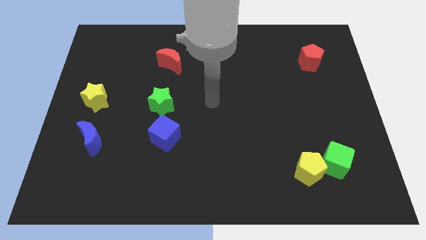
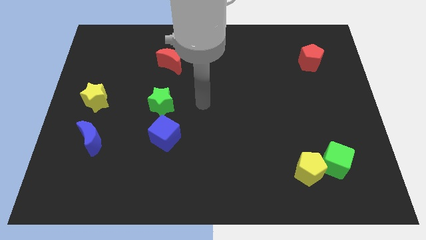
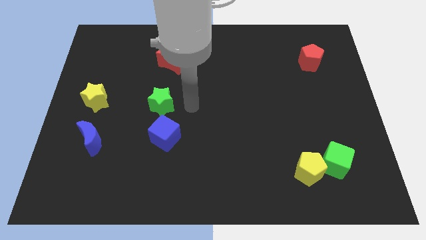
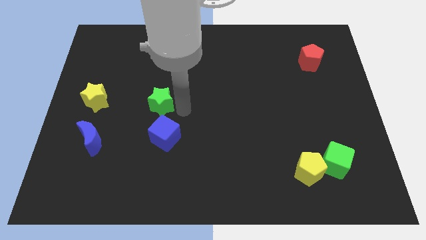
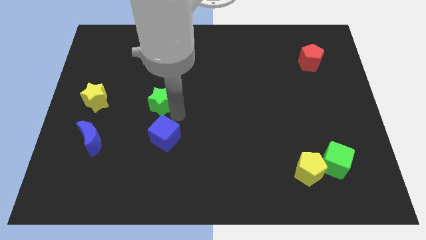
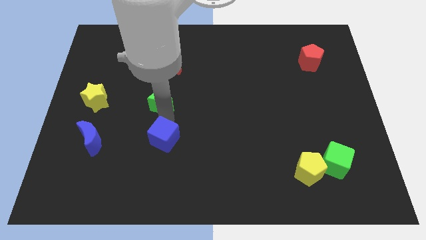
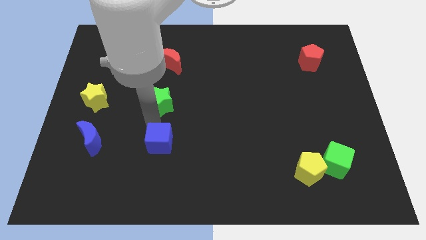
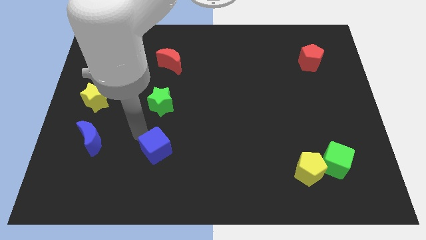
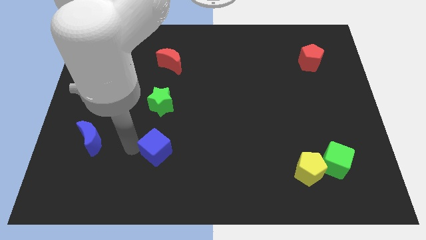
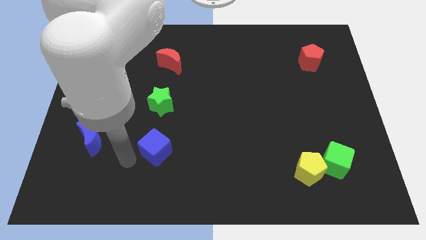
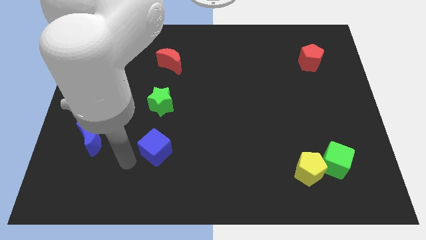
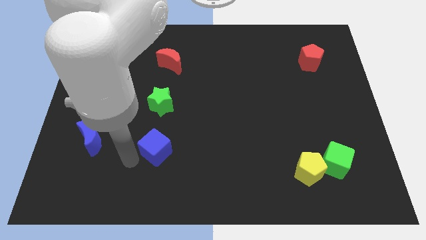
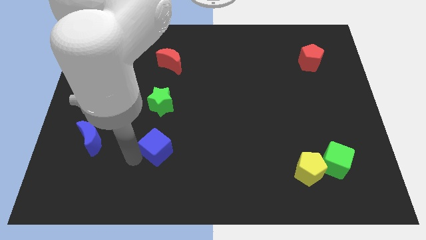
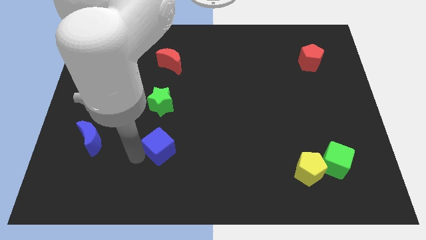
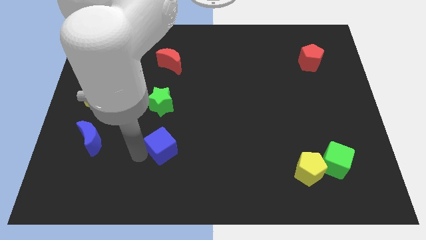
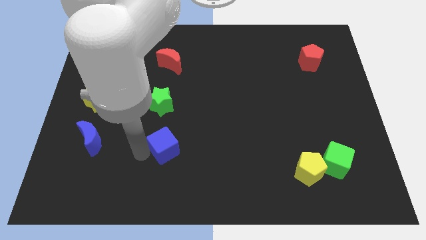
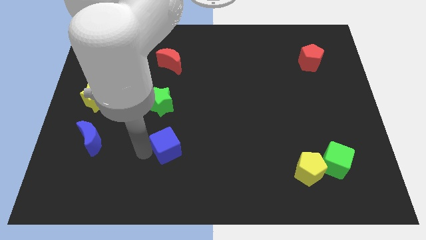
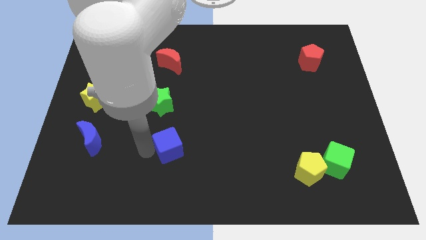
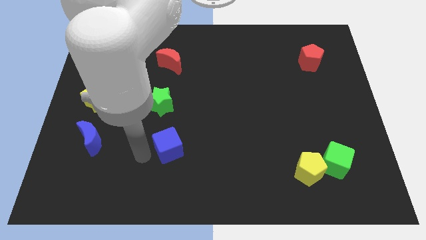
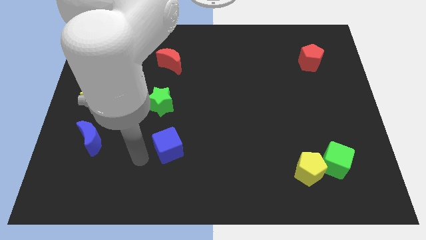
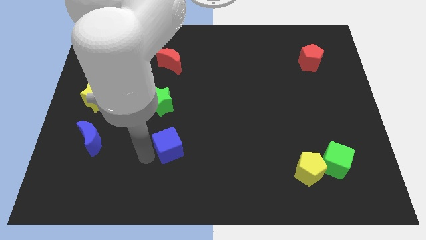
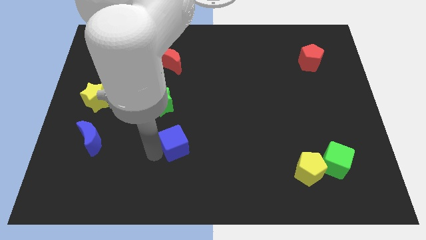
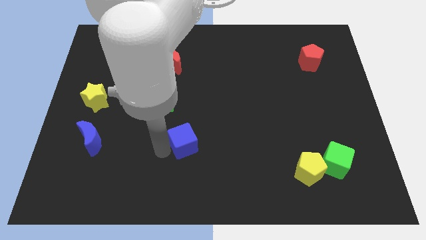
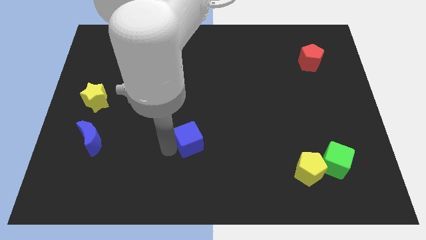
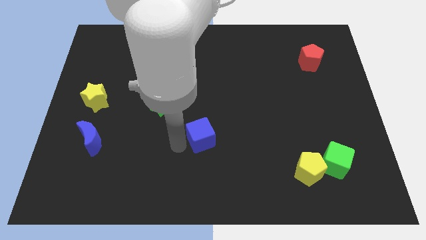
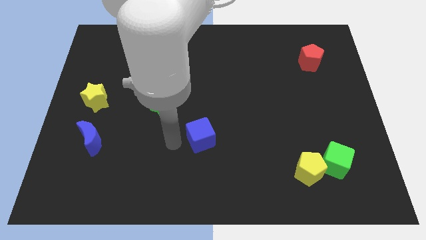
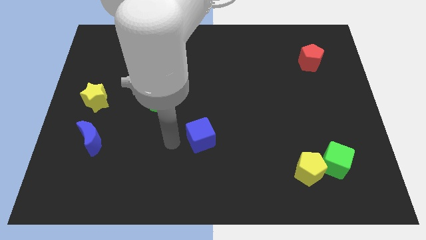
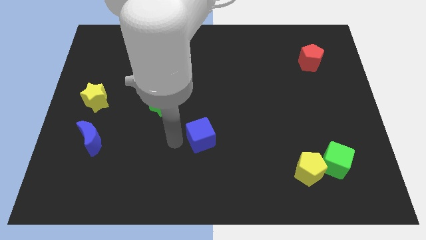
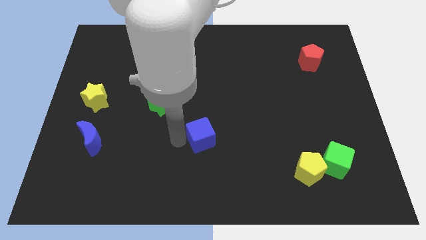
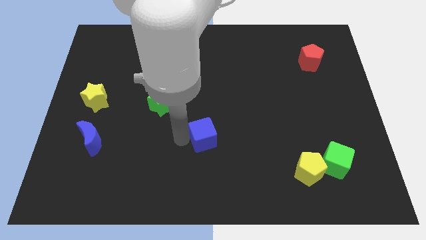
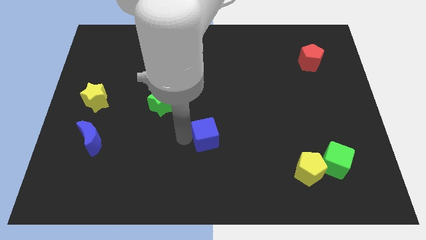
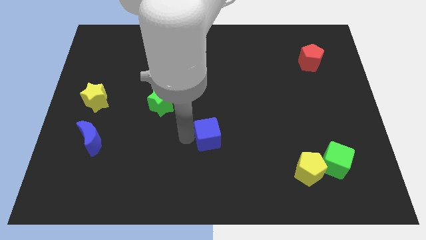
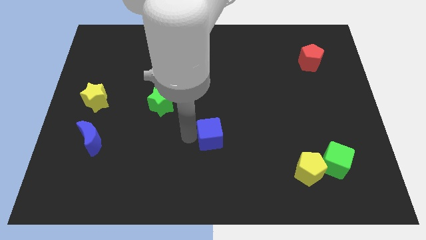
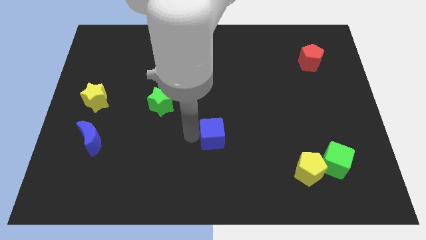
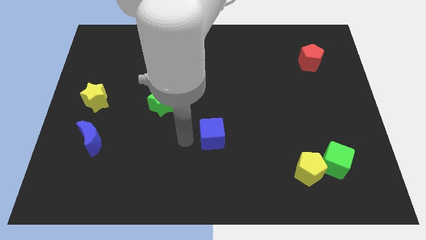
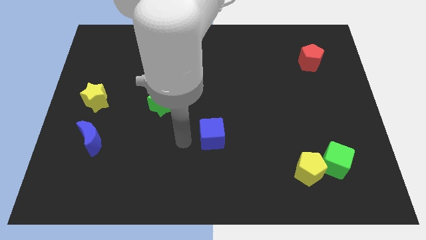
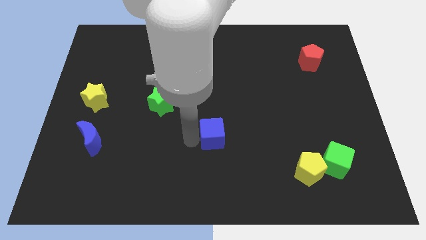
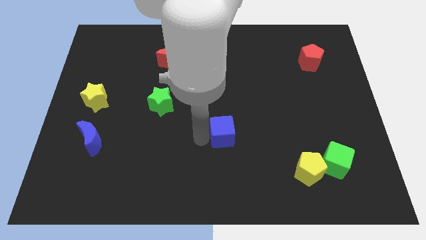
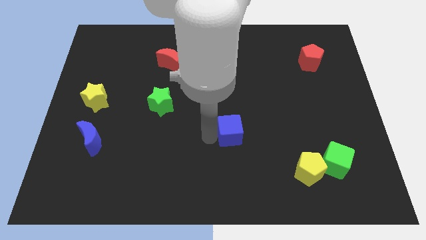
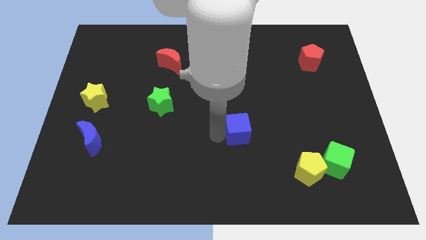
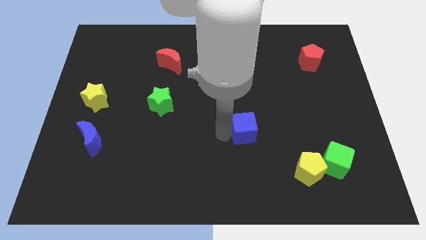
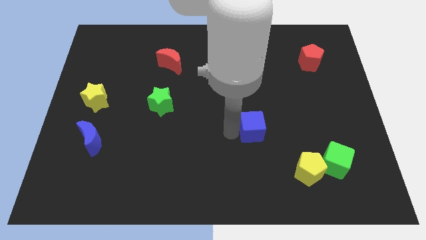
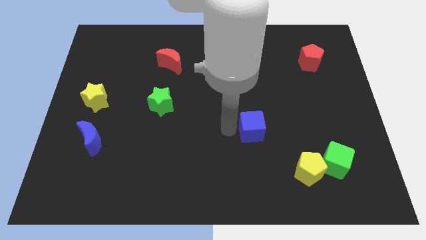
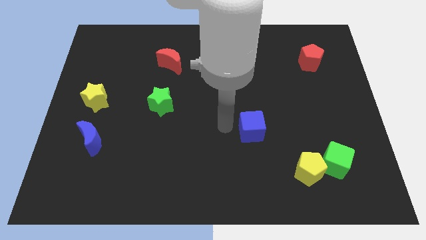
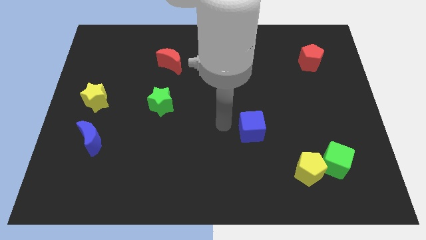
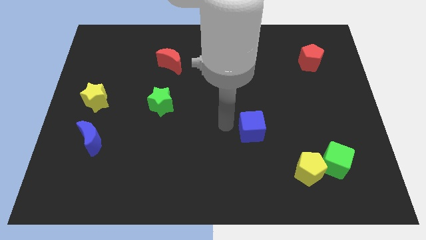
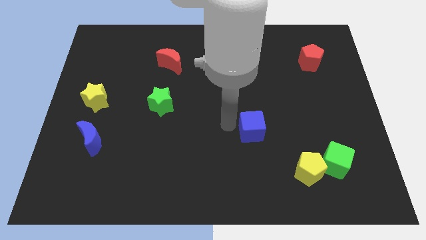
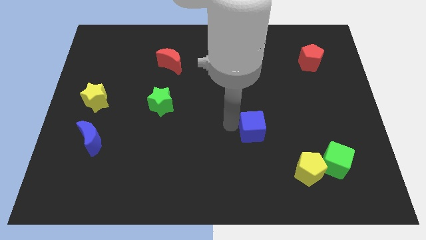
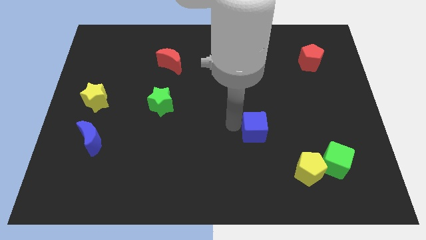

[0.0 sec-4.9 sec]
push the blue cube to the right

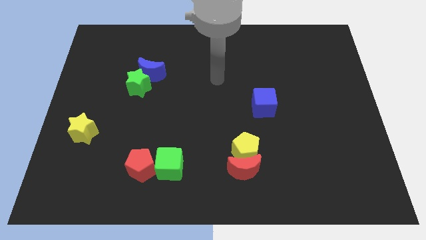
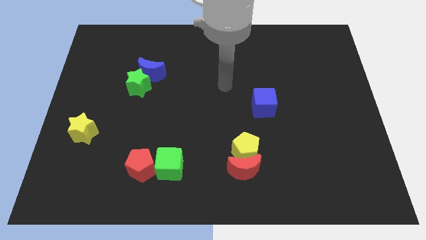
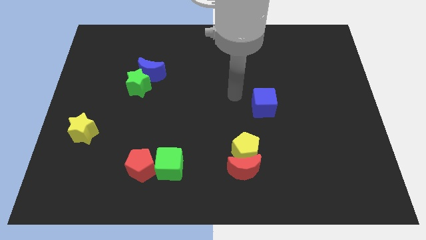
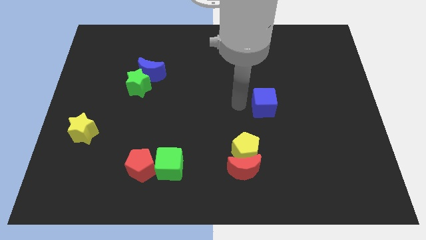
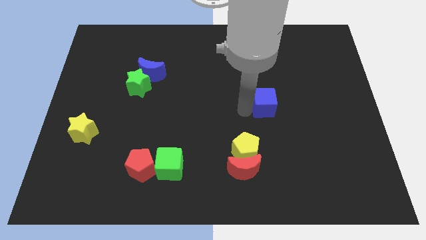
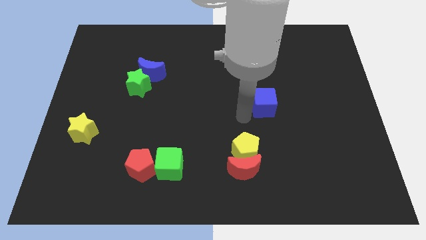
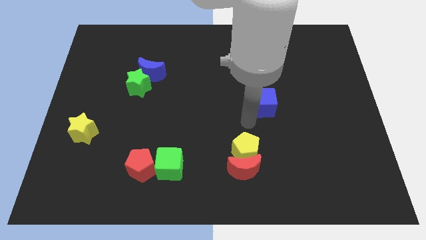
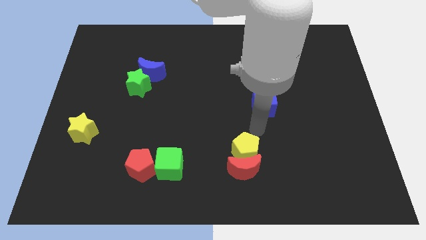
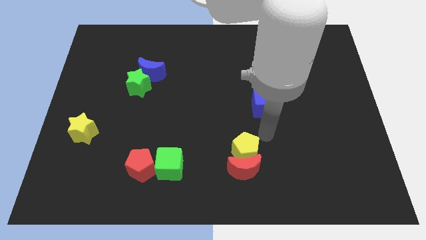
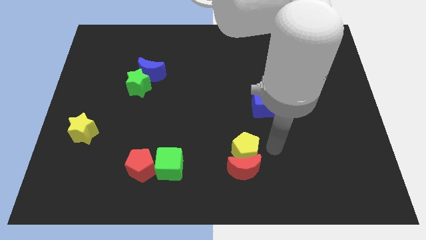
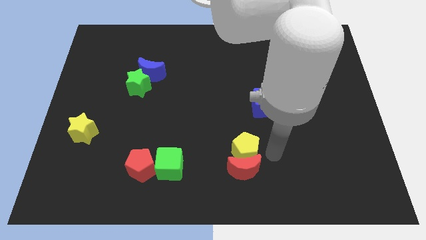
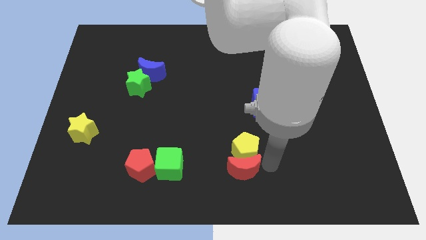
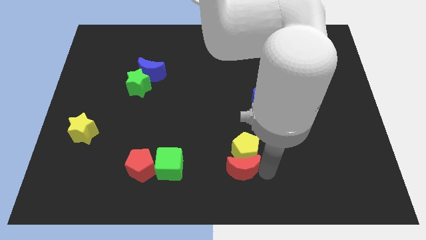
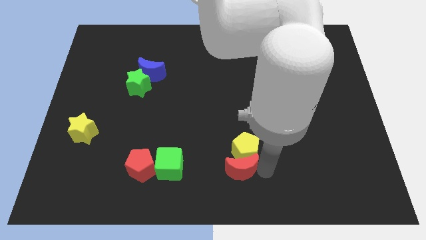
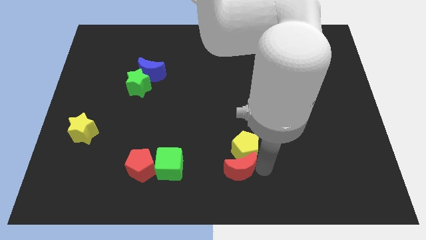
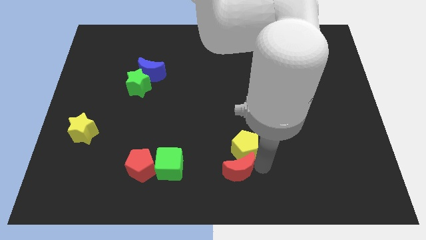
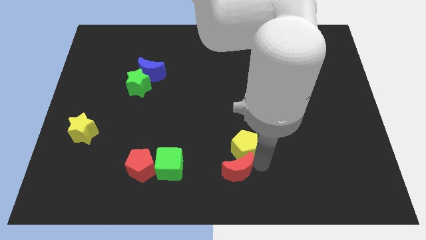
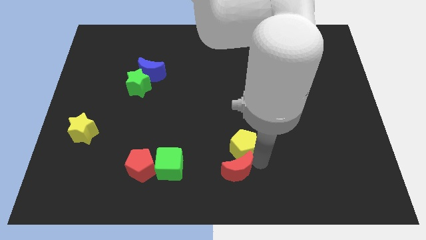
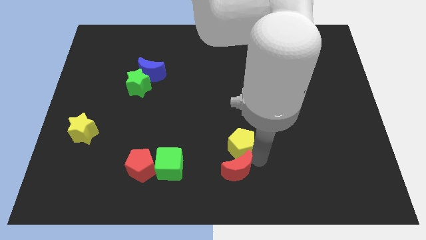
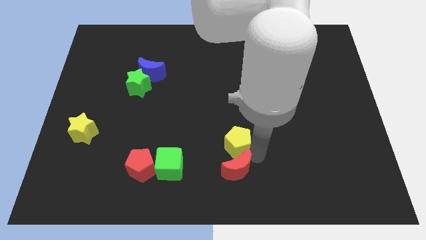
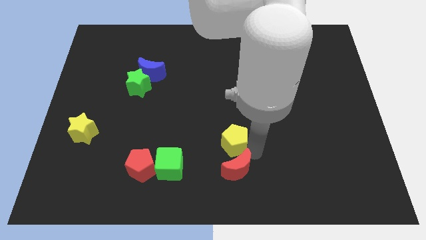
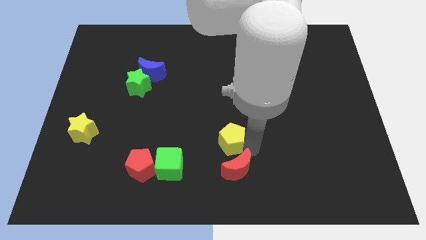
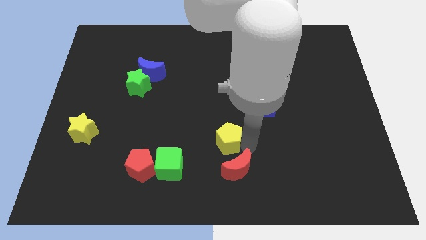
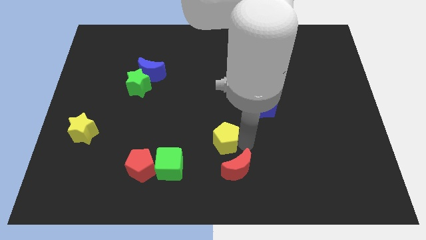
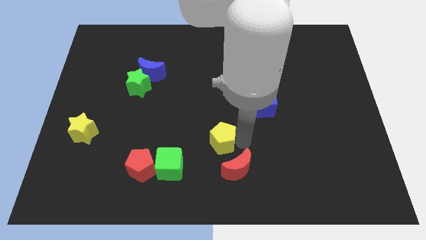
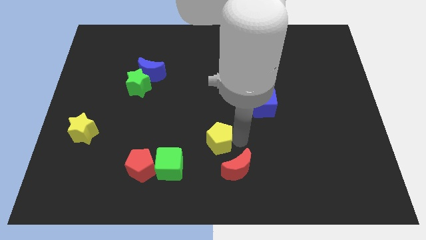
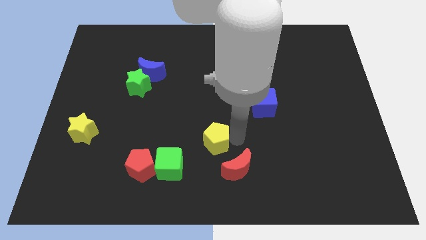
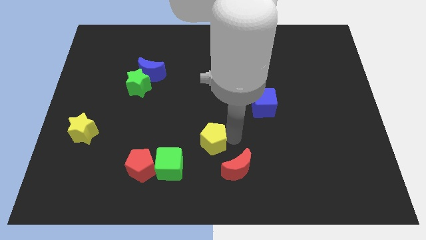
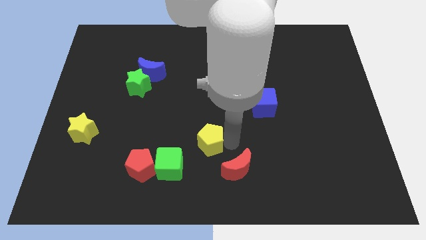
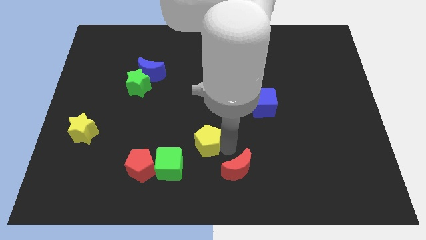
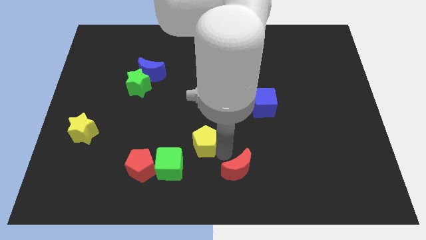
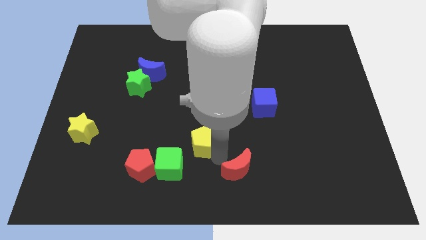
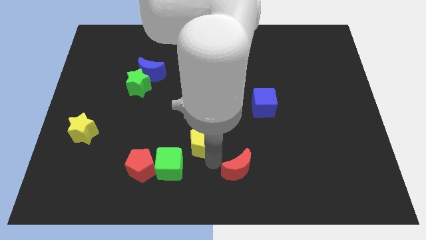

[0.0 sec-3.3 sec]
slide the yellow pentagon upwards and then left a little
